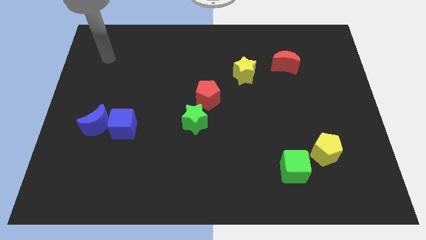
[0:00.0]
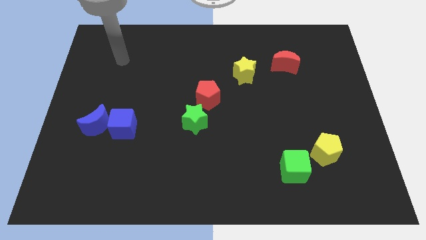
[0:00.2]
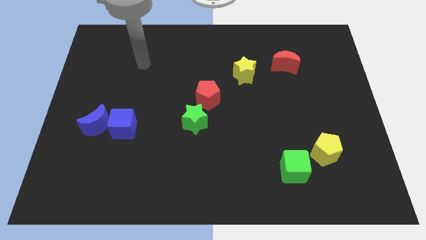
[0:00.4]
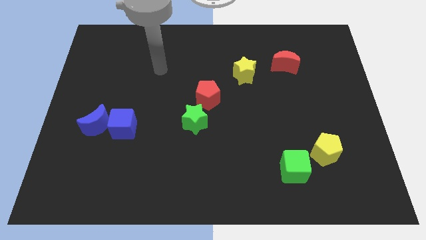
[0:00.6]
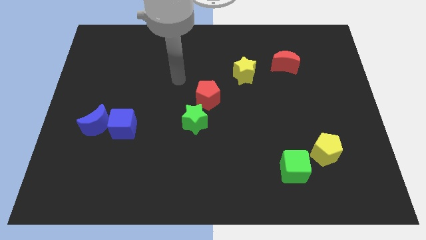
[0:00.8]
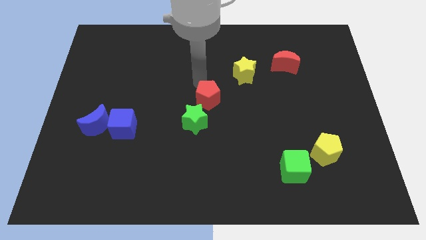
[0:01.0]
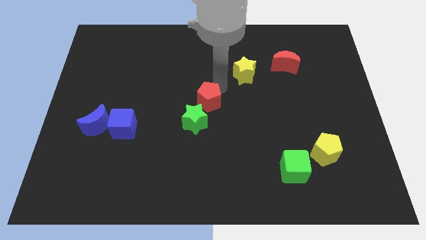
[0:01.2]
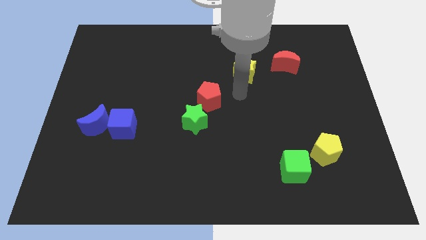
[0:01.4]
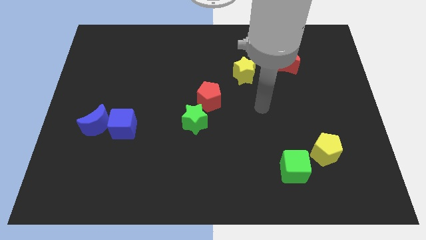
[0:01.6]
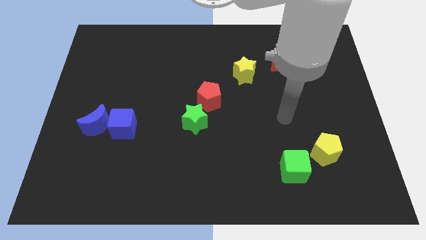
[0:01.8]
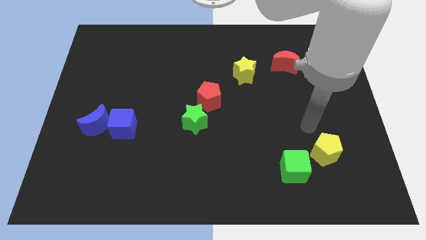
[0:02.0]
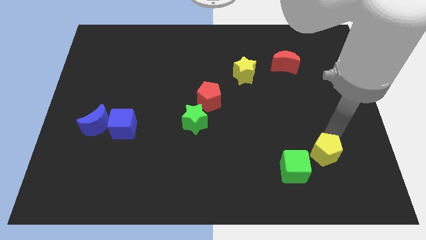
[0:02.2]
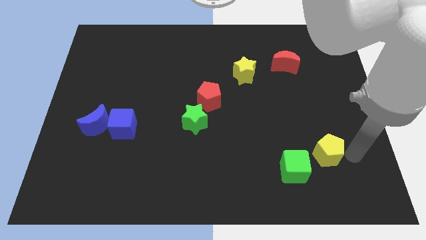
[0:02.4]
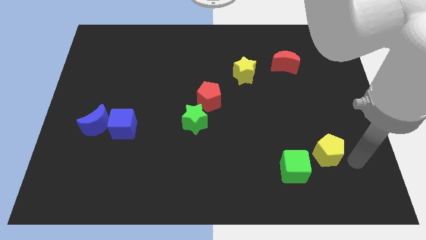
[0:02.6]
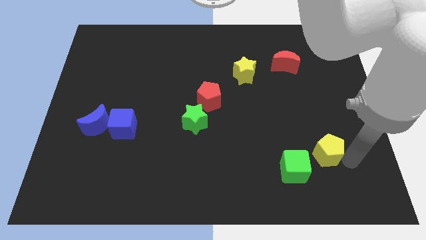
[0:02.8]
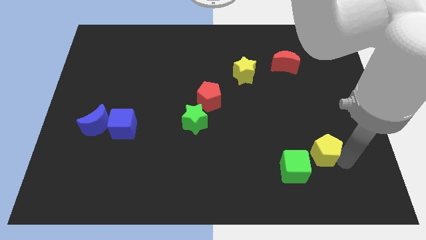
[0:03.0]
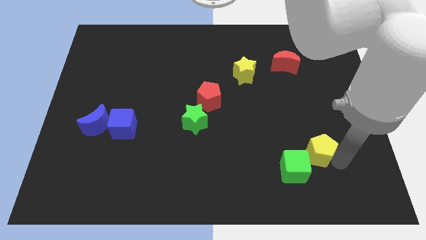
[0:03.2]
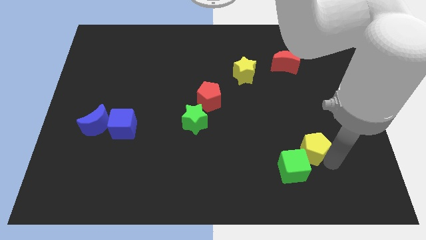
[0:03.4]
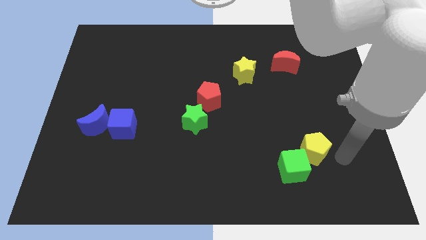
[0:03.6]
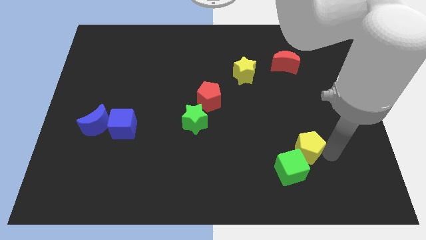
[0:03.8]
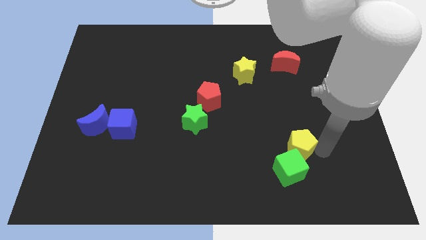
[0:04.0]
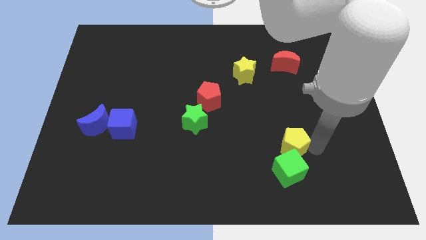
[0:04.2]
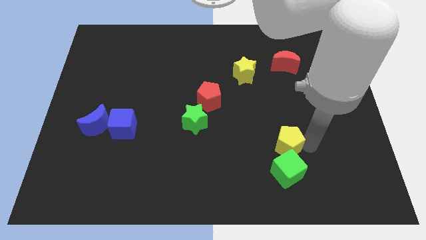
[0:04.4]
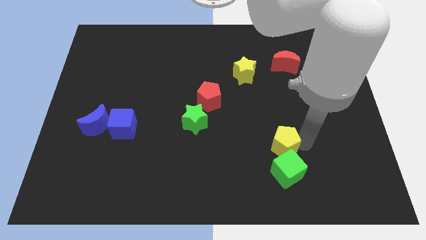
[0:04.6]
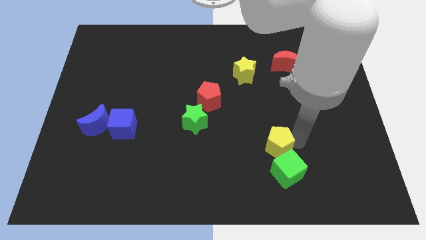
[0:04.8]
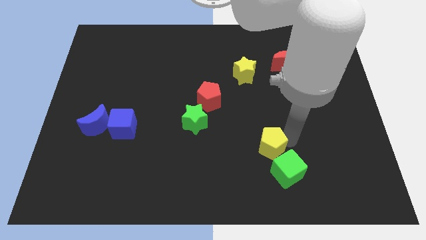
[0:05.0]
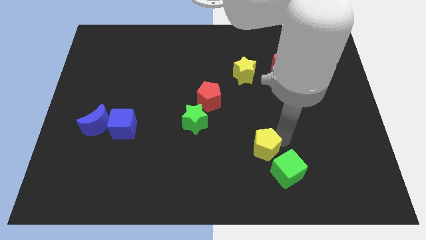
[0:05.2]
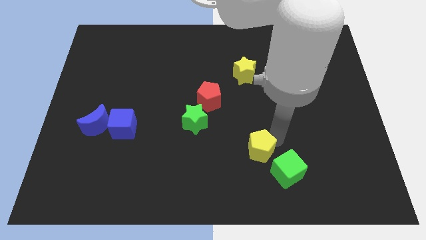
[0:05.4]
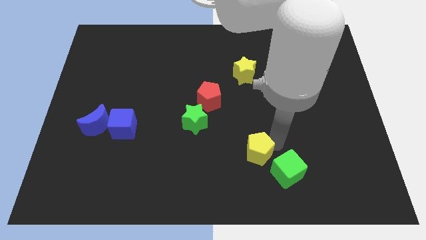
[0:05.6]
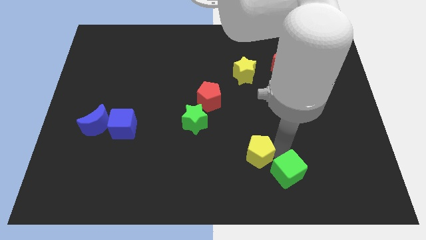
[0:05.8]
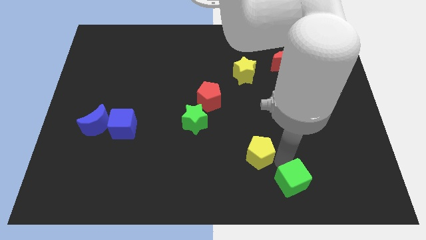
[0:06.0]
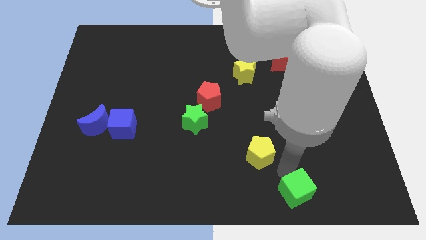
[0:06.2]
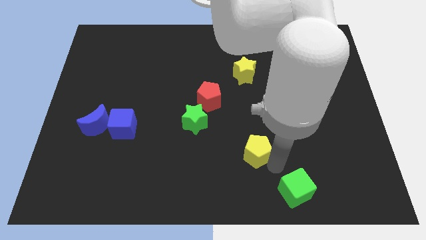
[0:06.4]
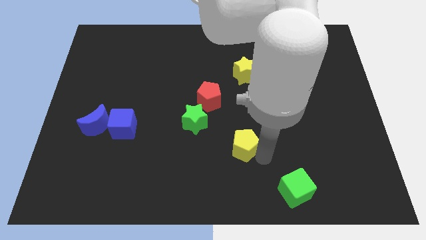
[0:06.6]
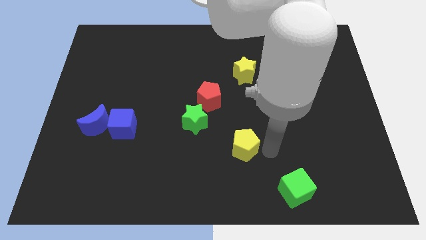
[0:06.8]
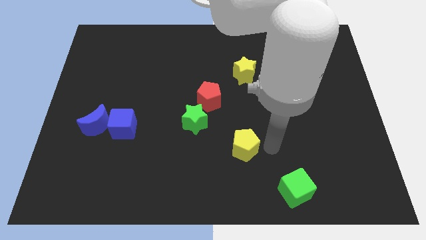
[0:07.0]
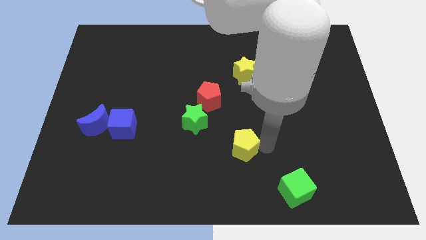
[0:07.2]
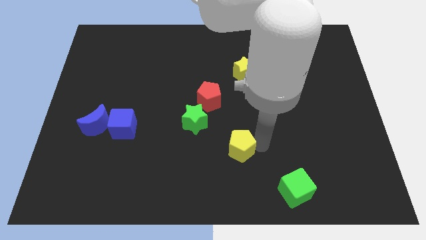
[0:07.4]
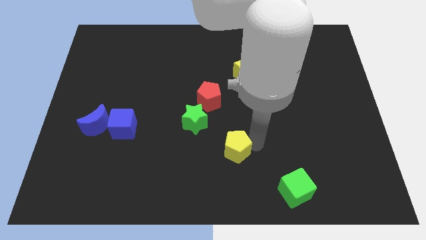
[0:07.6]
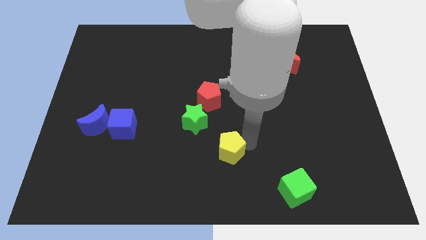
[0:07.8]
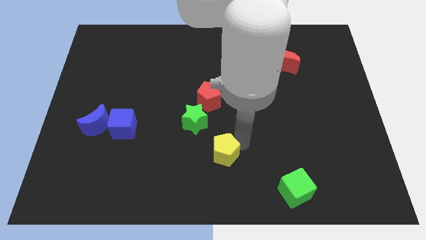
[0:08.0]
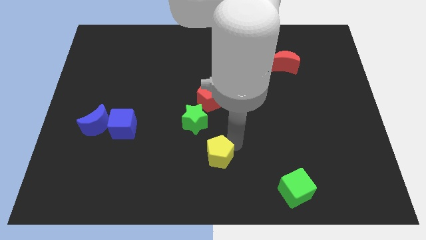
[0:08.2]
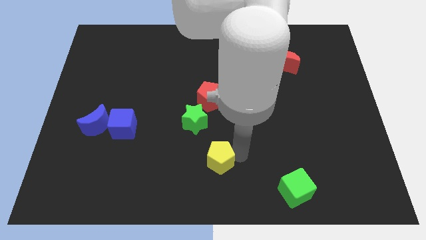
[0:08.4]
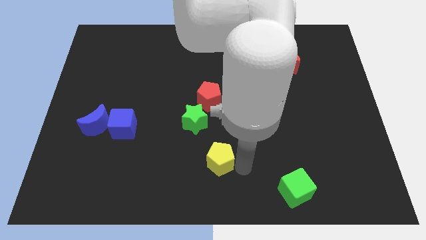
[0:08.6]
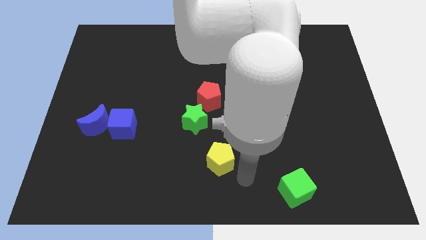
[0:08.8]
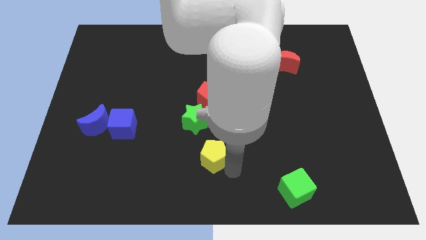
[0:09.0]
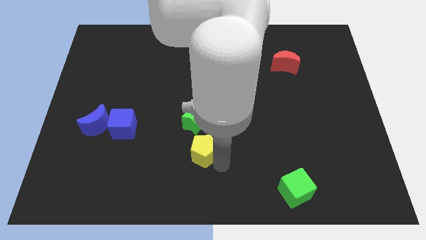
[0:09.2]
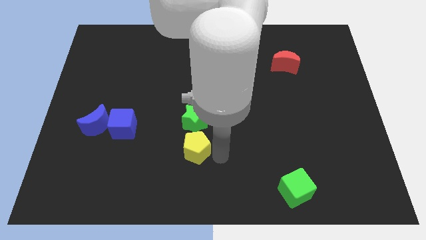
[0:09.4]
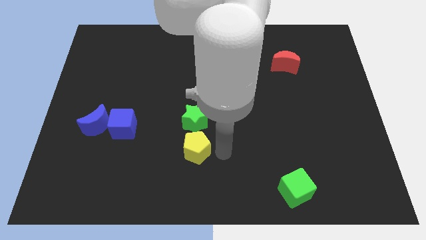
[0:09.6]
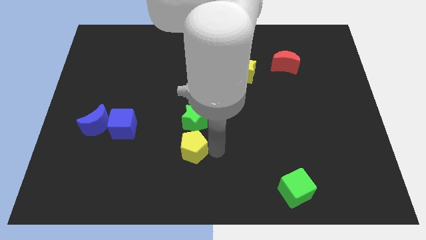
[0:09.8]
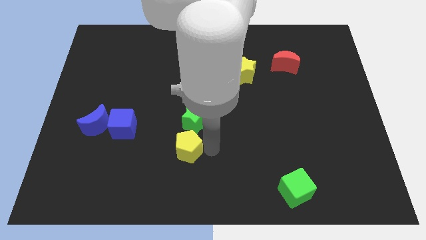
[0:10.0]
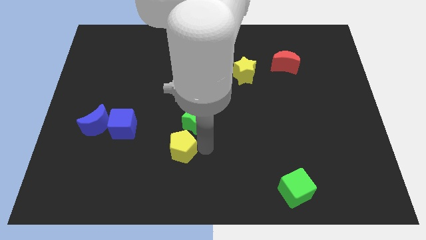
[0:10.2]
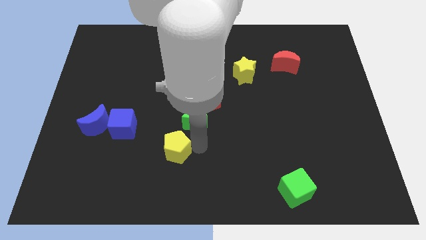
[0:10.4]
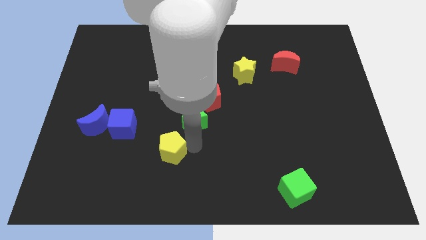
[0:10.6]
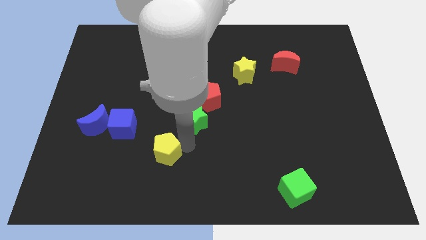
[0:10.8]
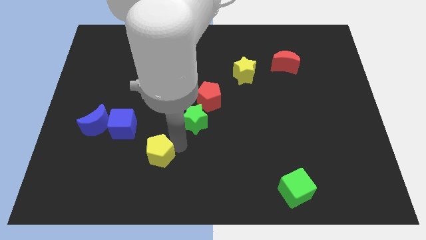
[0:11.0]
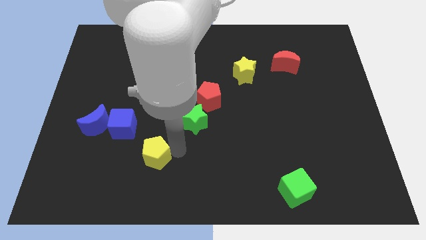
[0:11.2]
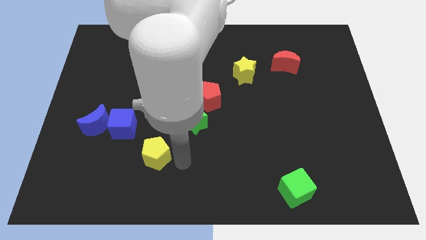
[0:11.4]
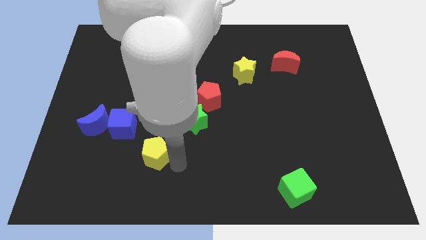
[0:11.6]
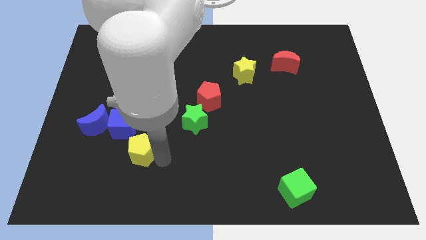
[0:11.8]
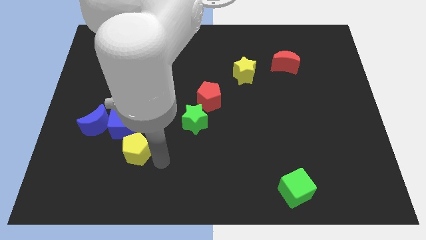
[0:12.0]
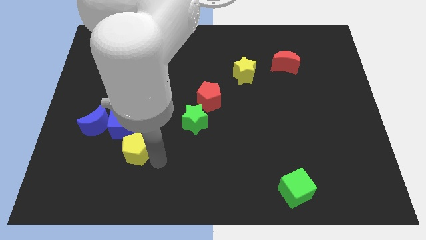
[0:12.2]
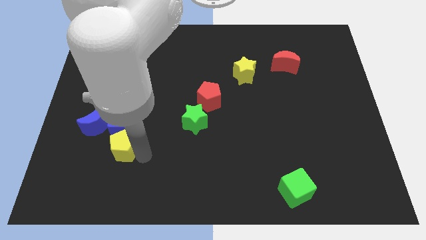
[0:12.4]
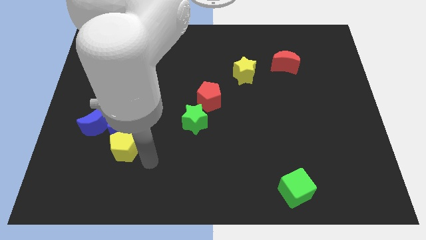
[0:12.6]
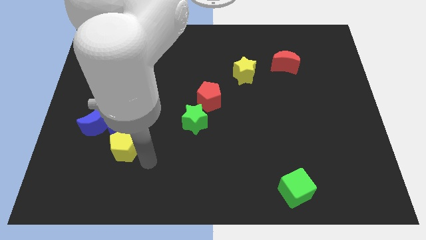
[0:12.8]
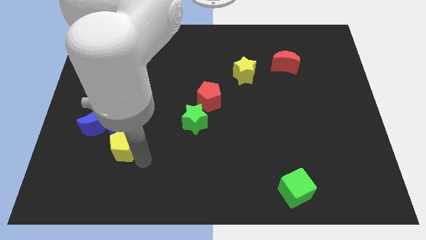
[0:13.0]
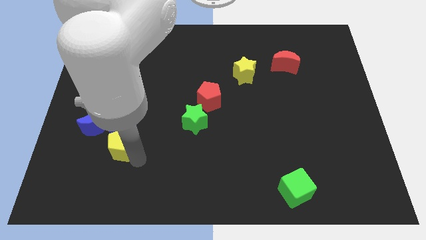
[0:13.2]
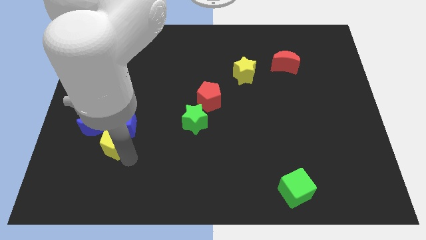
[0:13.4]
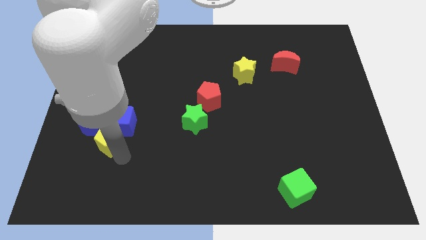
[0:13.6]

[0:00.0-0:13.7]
put the yellow pentagon to the blue moon

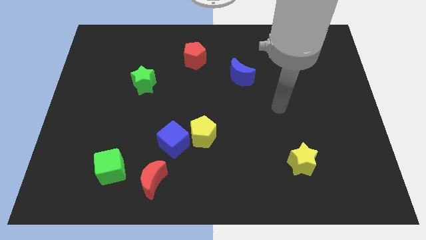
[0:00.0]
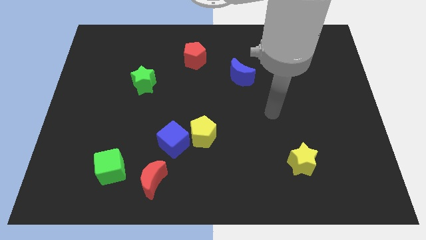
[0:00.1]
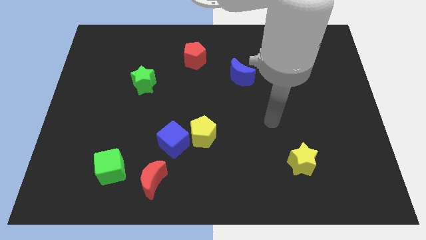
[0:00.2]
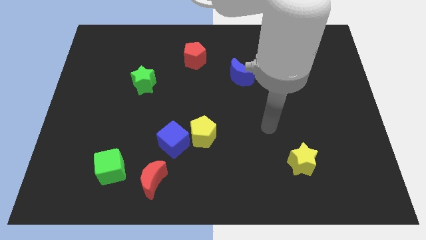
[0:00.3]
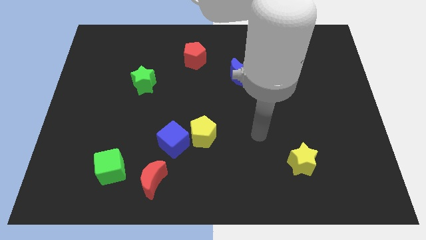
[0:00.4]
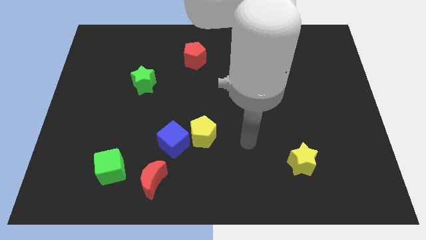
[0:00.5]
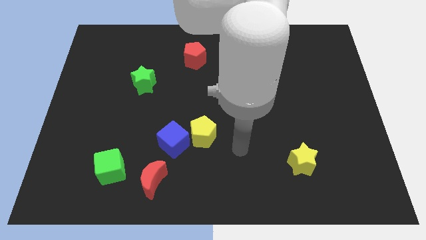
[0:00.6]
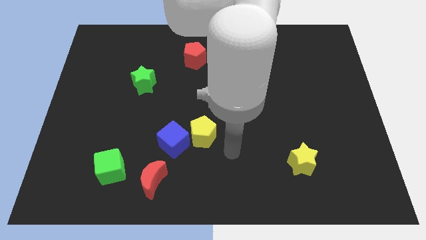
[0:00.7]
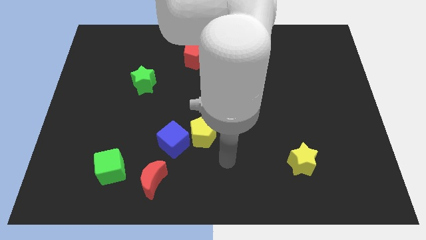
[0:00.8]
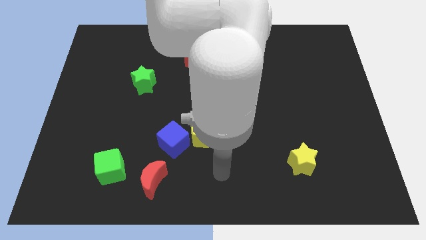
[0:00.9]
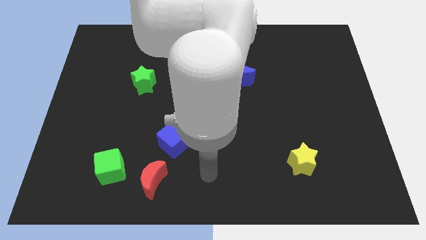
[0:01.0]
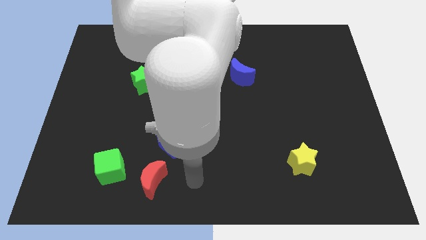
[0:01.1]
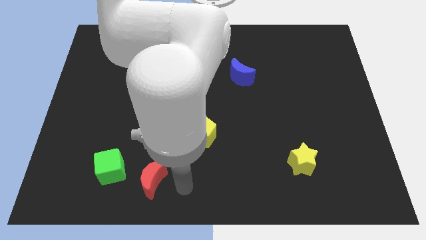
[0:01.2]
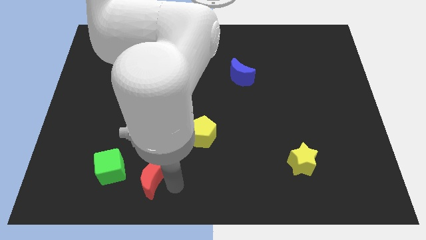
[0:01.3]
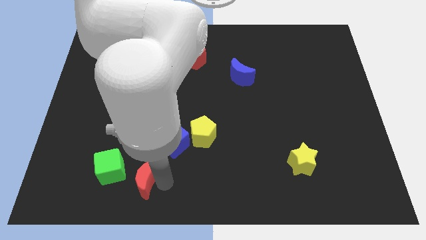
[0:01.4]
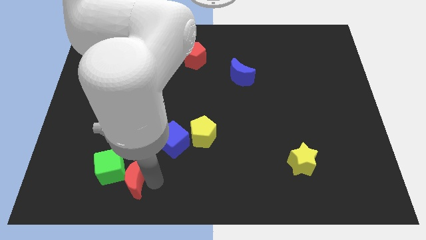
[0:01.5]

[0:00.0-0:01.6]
push the red moon to the green cube
